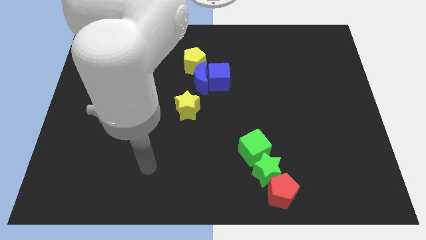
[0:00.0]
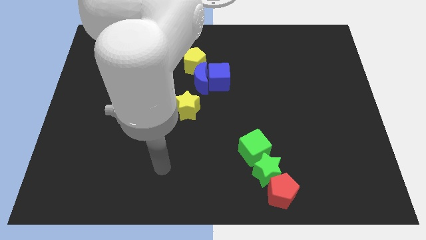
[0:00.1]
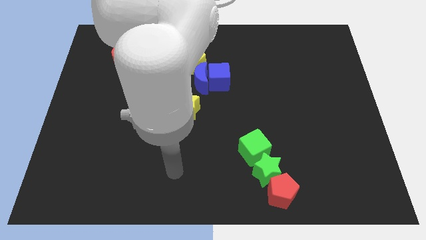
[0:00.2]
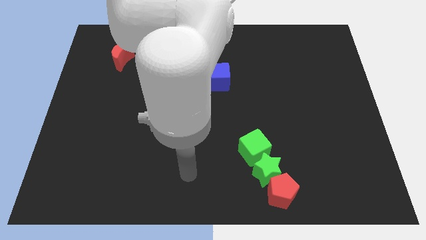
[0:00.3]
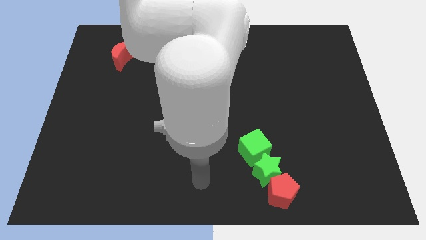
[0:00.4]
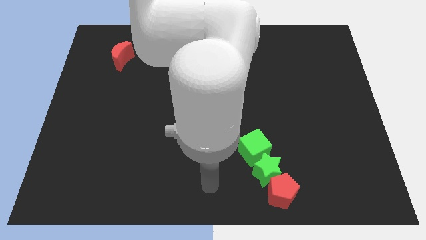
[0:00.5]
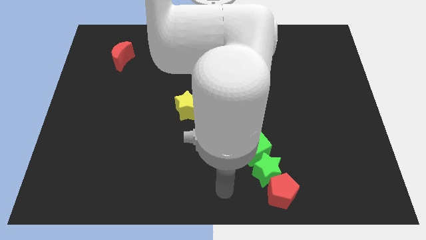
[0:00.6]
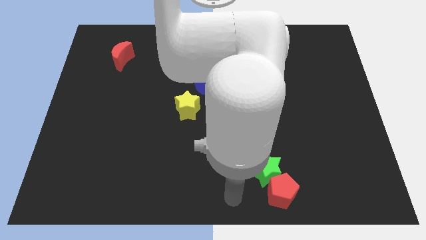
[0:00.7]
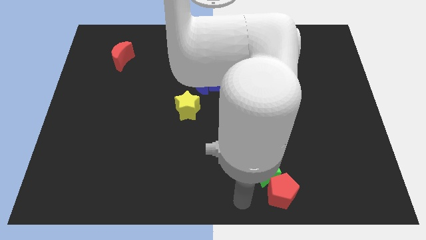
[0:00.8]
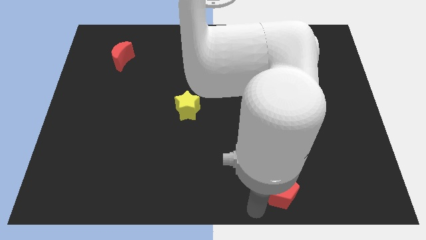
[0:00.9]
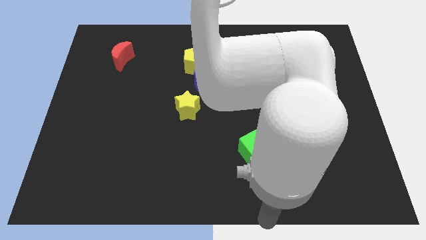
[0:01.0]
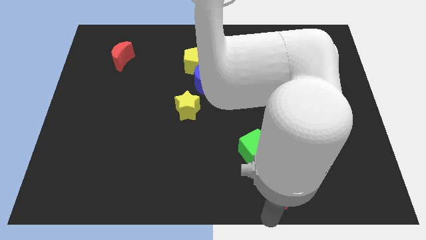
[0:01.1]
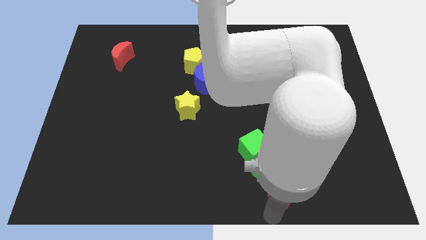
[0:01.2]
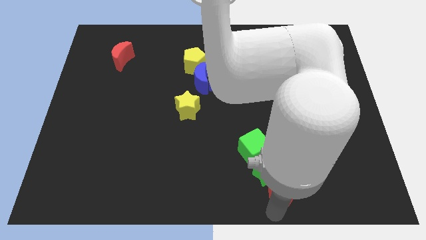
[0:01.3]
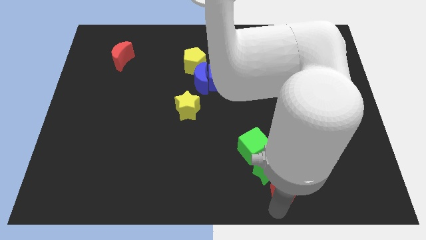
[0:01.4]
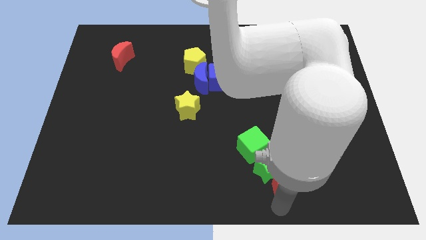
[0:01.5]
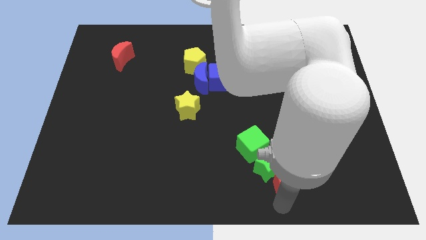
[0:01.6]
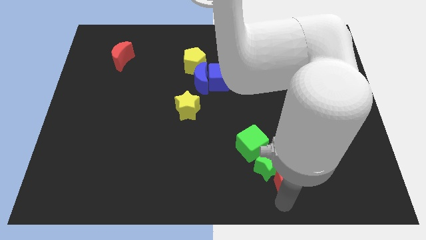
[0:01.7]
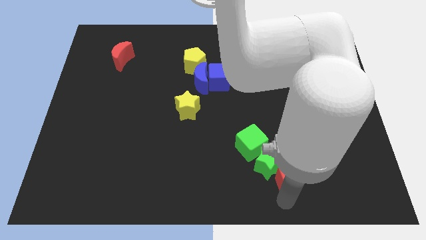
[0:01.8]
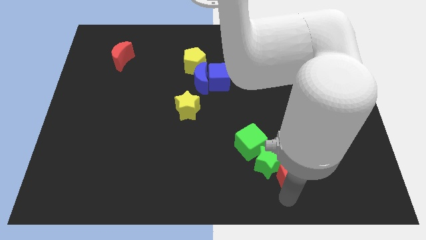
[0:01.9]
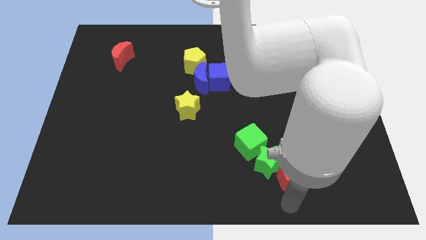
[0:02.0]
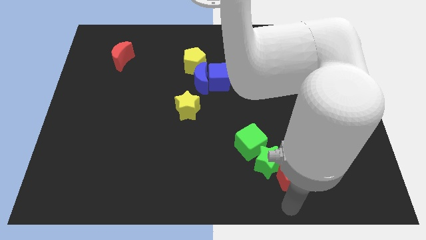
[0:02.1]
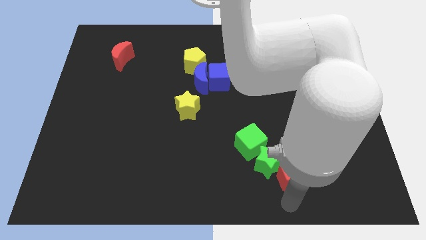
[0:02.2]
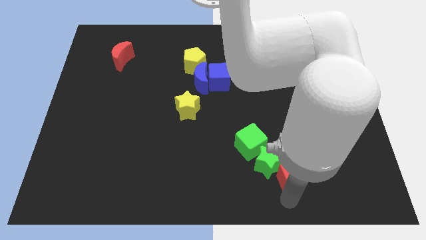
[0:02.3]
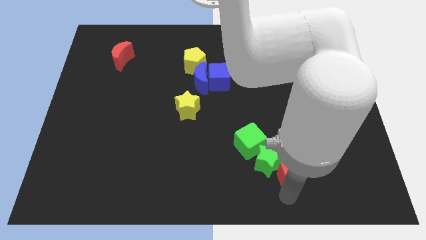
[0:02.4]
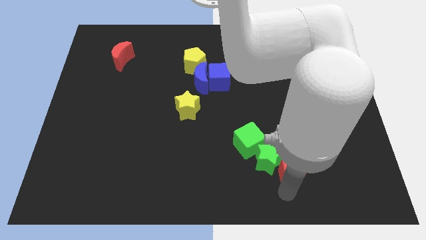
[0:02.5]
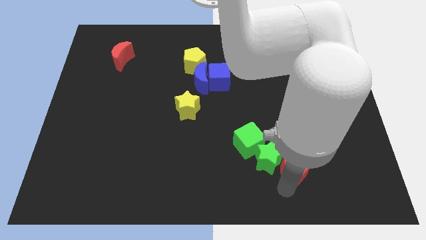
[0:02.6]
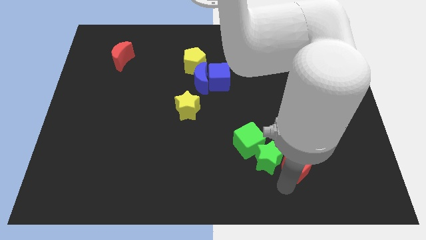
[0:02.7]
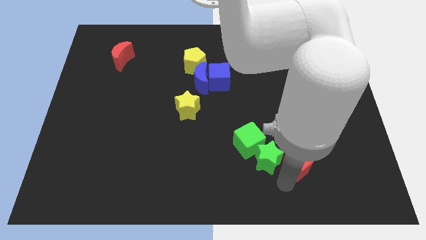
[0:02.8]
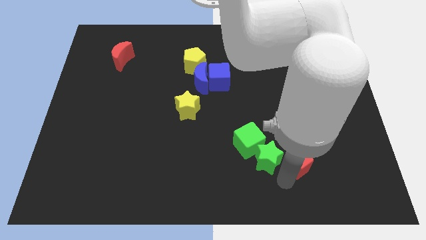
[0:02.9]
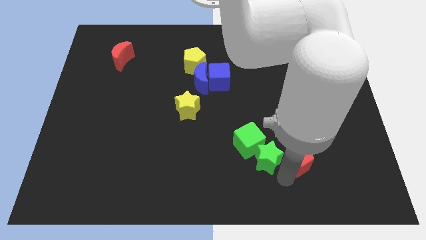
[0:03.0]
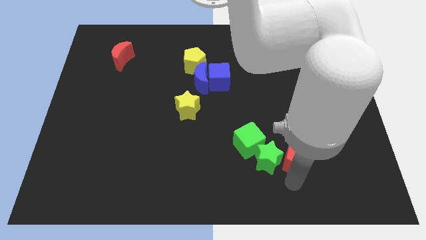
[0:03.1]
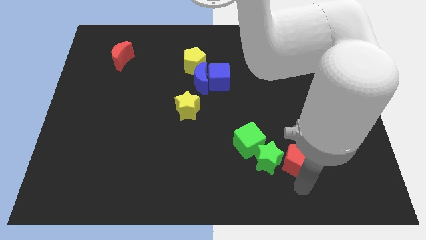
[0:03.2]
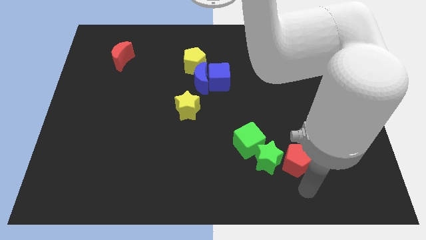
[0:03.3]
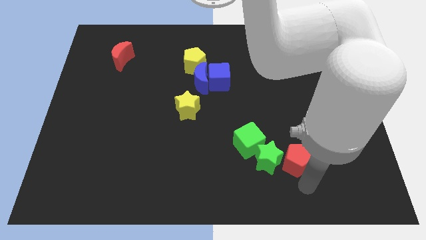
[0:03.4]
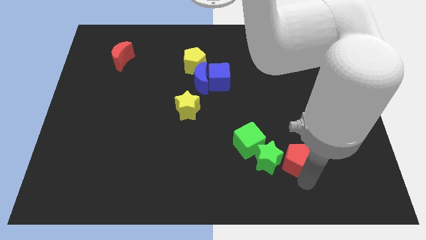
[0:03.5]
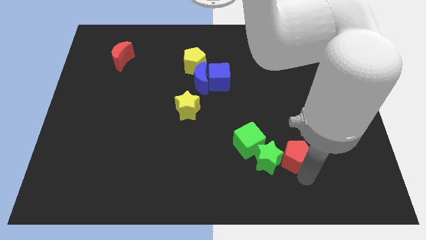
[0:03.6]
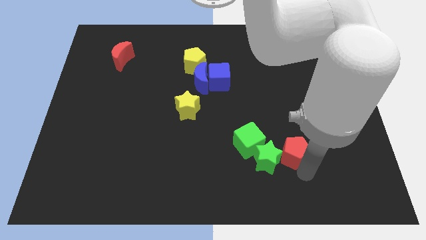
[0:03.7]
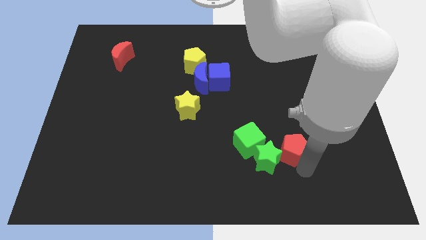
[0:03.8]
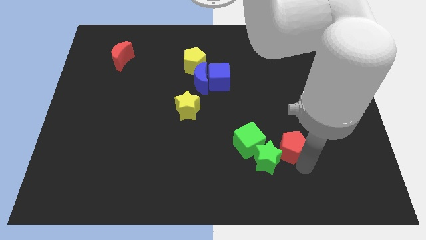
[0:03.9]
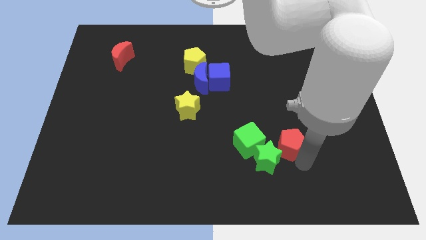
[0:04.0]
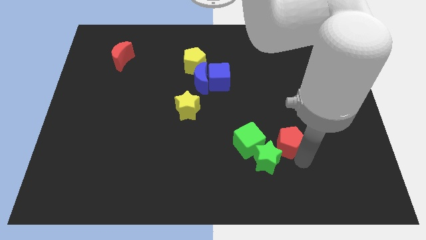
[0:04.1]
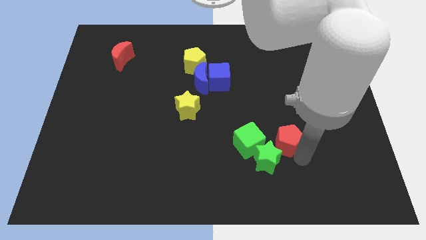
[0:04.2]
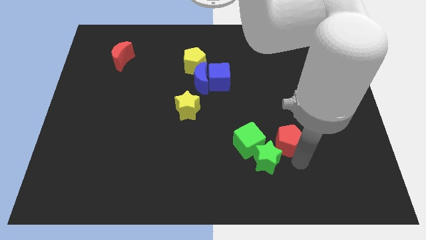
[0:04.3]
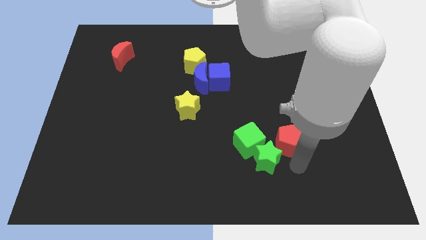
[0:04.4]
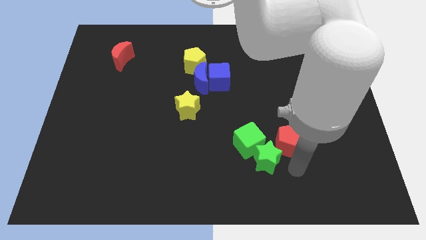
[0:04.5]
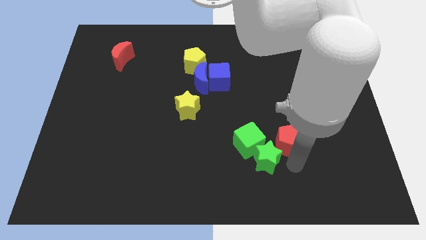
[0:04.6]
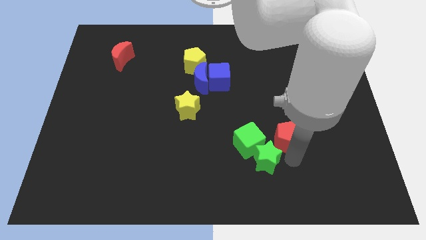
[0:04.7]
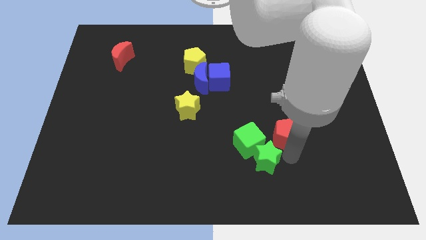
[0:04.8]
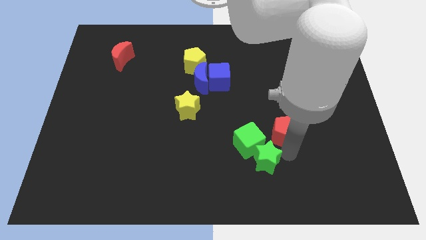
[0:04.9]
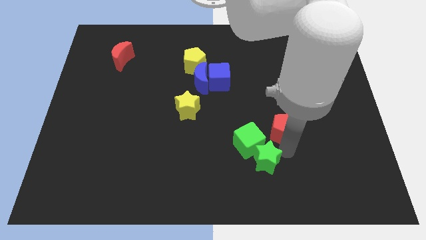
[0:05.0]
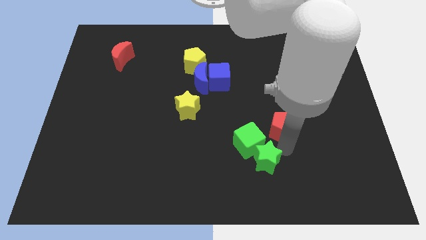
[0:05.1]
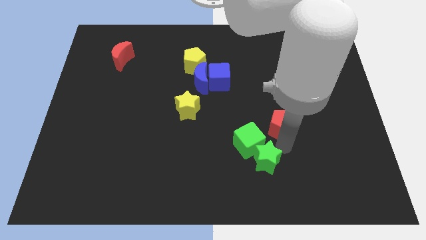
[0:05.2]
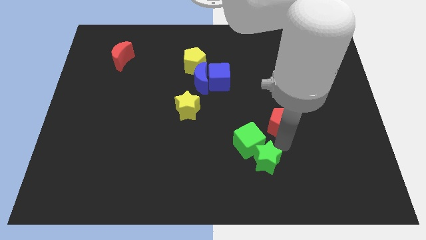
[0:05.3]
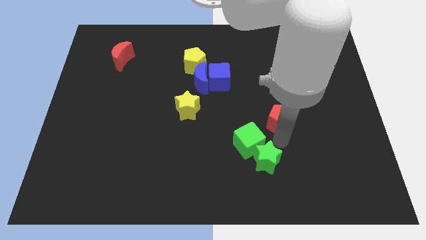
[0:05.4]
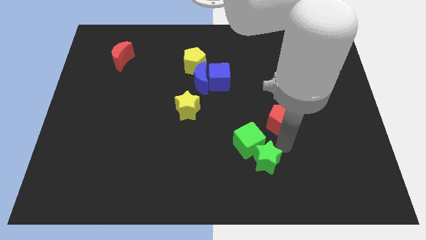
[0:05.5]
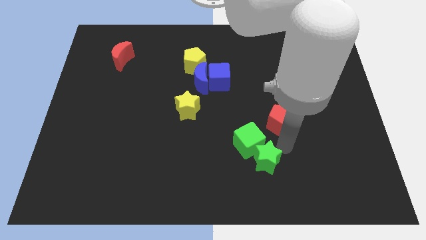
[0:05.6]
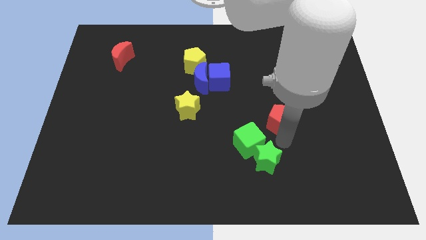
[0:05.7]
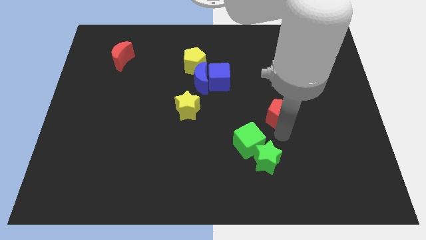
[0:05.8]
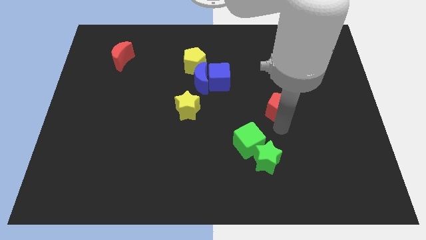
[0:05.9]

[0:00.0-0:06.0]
push the red pentagon upwards

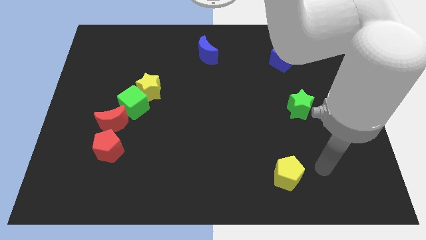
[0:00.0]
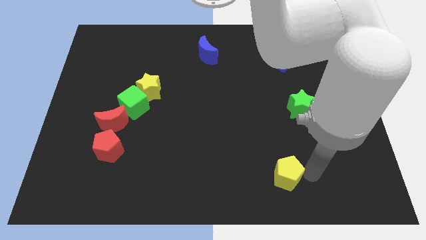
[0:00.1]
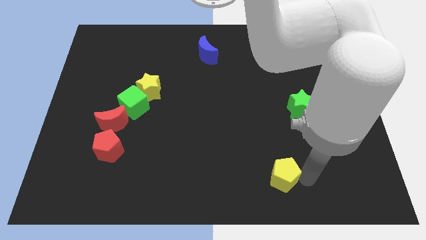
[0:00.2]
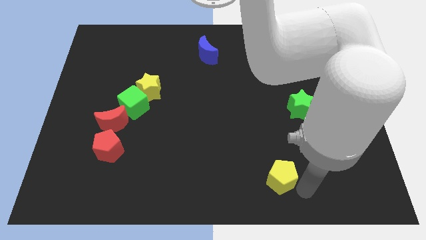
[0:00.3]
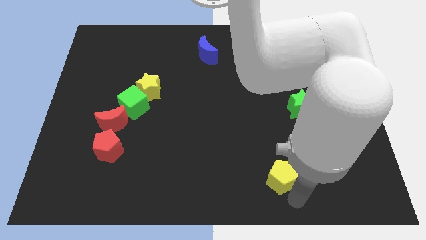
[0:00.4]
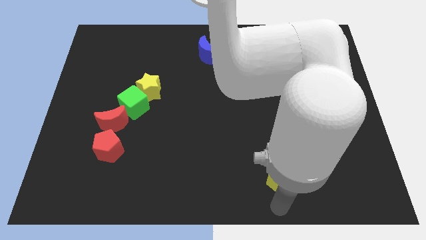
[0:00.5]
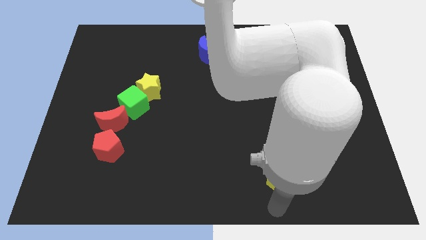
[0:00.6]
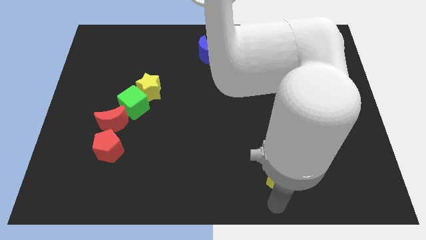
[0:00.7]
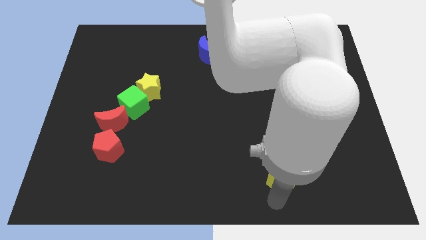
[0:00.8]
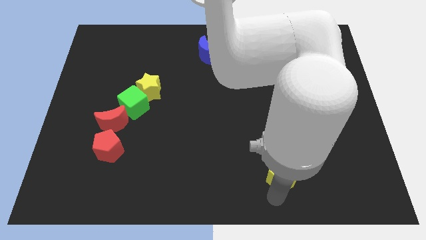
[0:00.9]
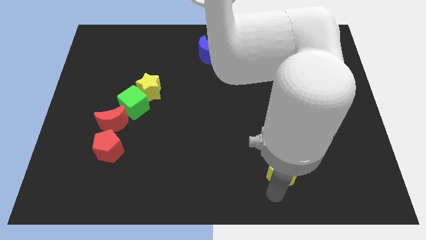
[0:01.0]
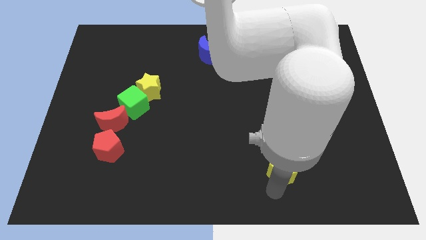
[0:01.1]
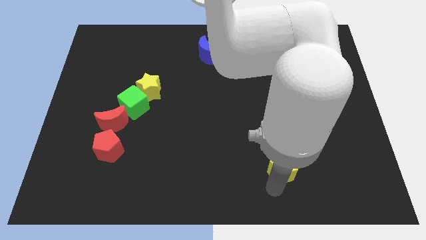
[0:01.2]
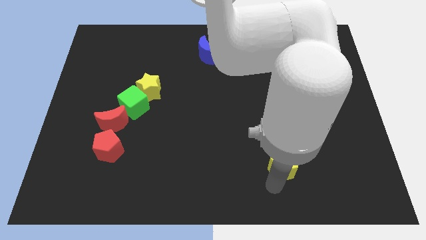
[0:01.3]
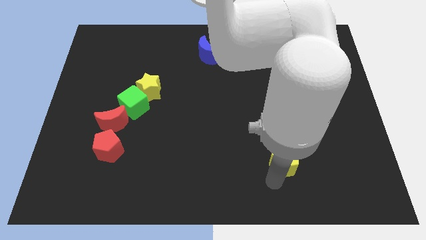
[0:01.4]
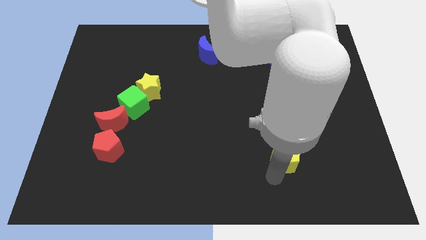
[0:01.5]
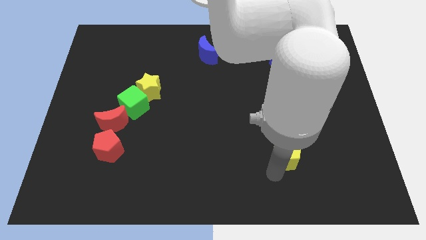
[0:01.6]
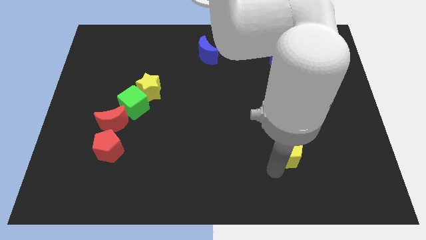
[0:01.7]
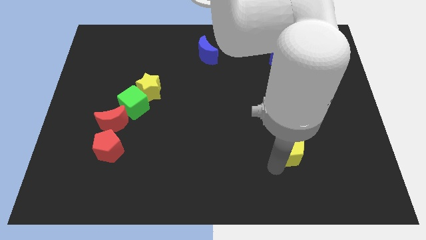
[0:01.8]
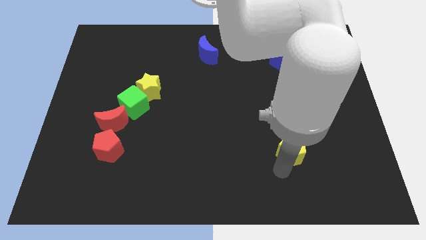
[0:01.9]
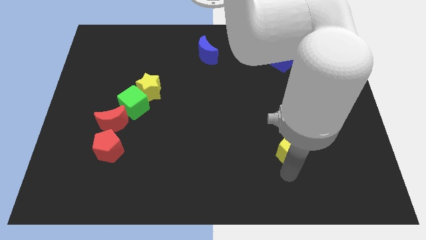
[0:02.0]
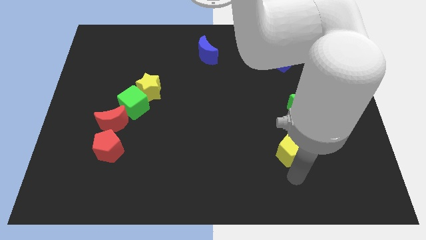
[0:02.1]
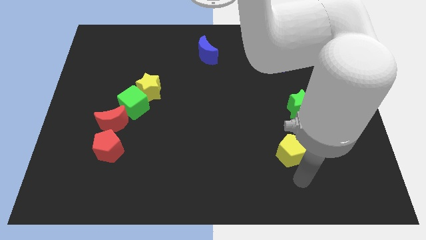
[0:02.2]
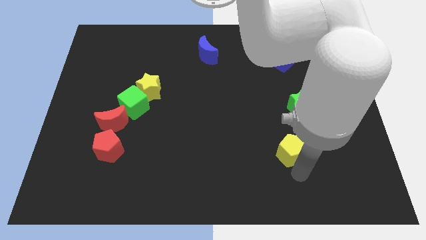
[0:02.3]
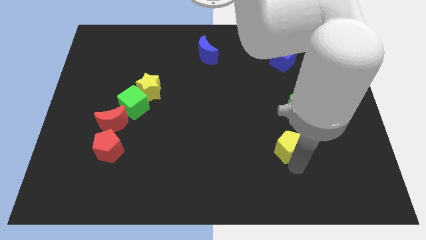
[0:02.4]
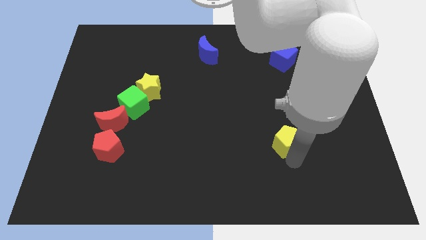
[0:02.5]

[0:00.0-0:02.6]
slightly slide the yellow pentagon upwards
